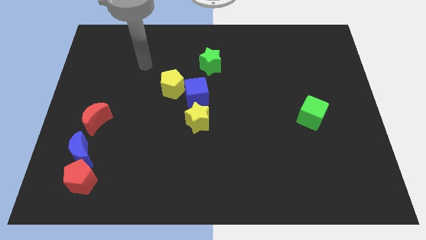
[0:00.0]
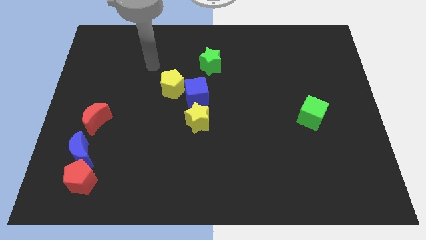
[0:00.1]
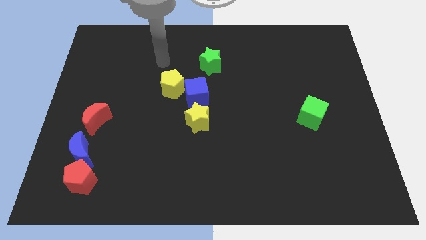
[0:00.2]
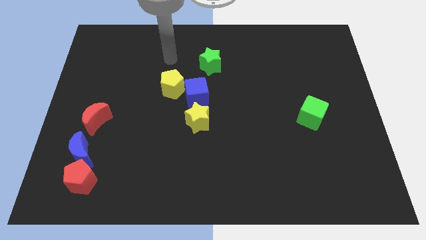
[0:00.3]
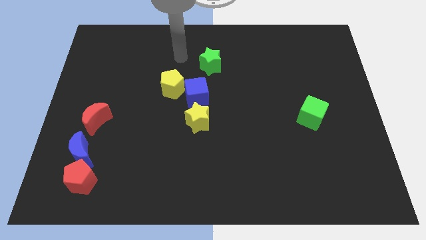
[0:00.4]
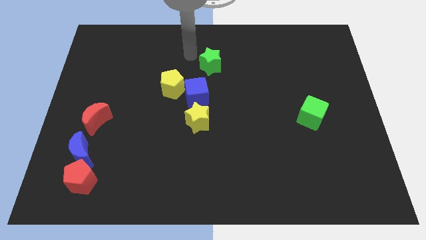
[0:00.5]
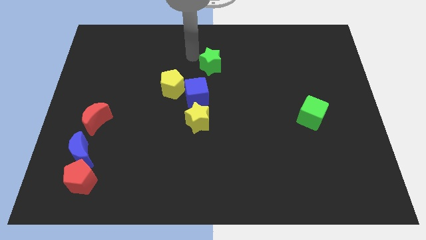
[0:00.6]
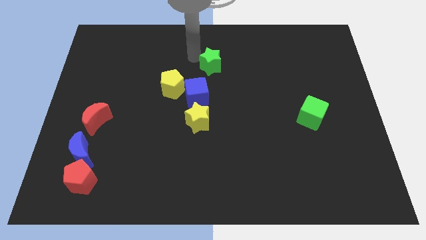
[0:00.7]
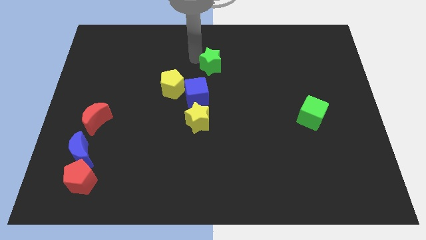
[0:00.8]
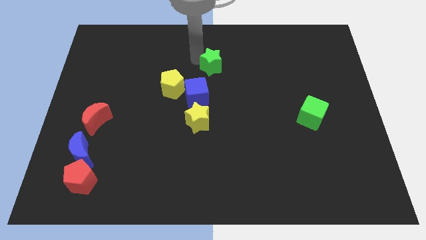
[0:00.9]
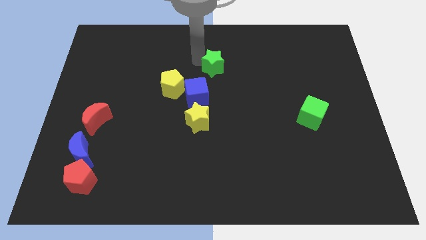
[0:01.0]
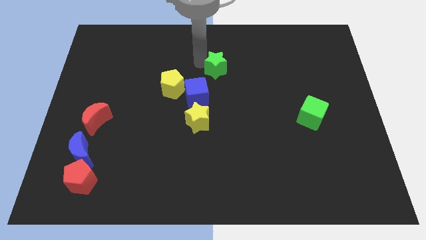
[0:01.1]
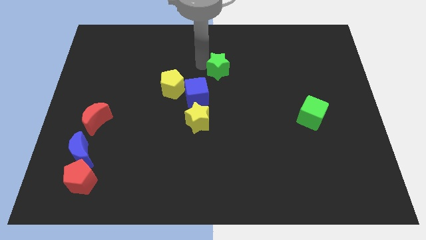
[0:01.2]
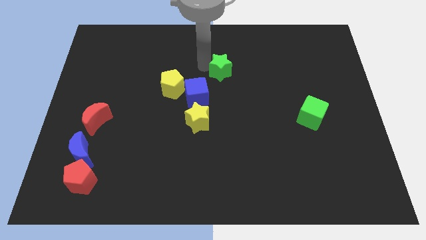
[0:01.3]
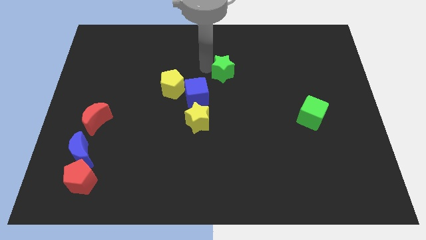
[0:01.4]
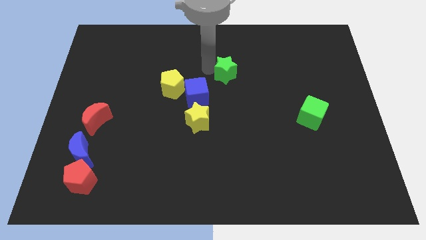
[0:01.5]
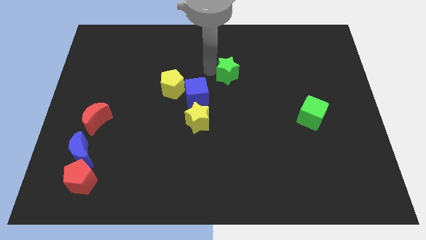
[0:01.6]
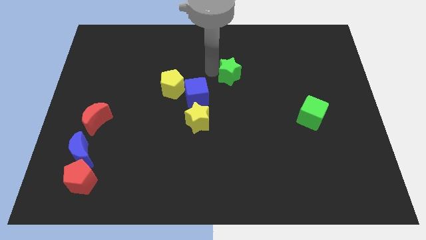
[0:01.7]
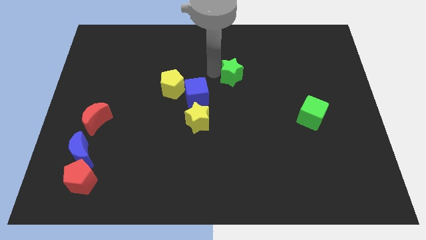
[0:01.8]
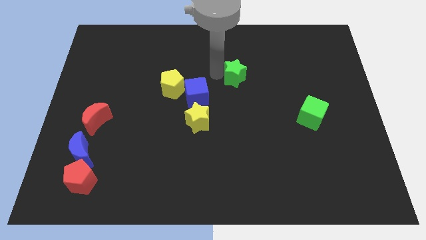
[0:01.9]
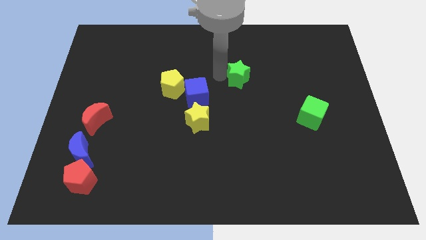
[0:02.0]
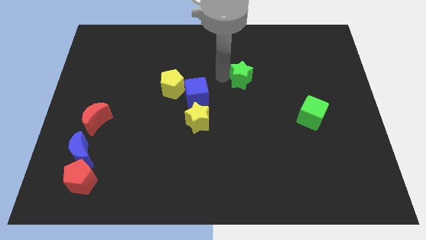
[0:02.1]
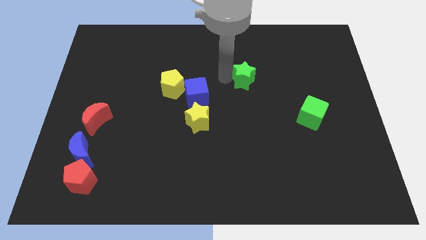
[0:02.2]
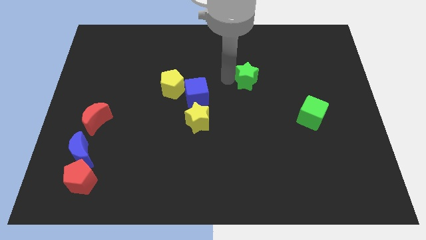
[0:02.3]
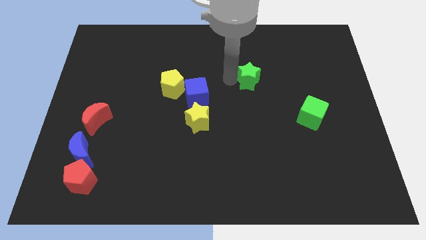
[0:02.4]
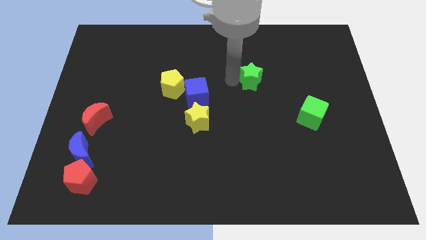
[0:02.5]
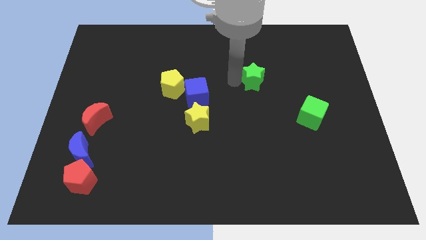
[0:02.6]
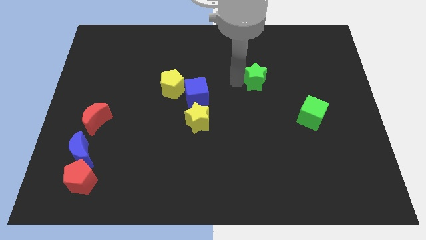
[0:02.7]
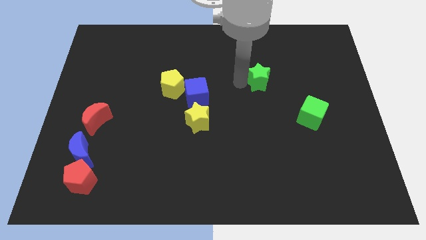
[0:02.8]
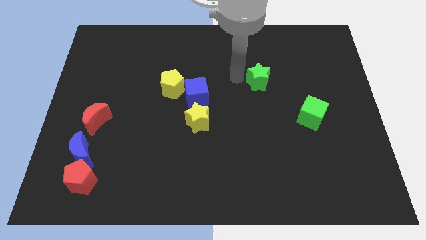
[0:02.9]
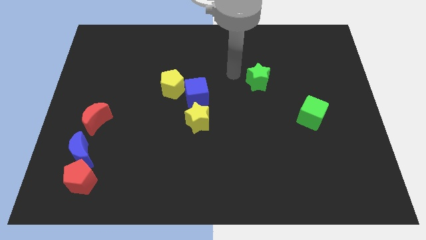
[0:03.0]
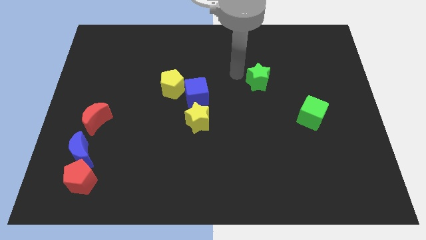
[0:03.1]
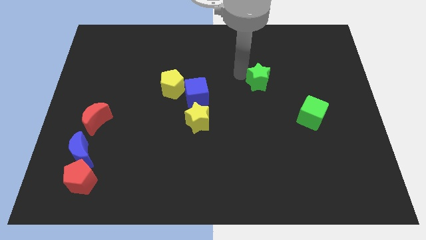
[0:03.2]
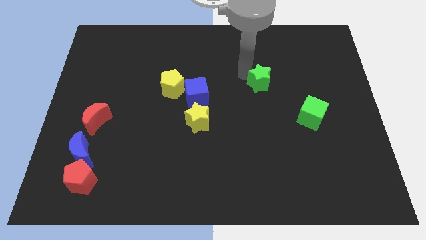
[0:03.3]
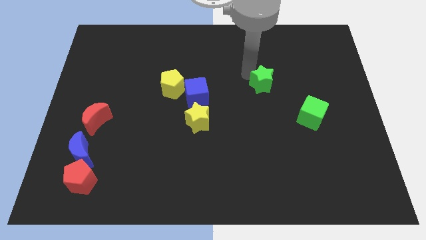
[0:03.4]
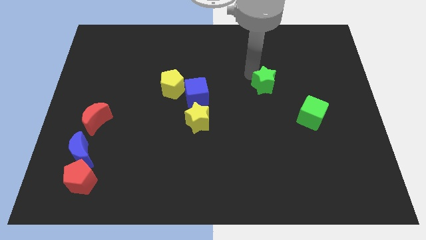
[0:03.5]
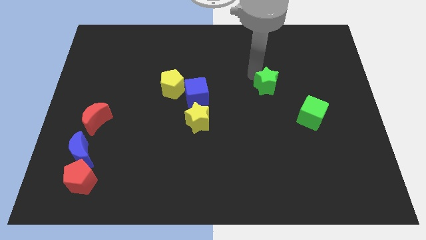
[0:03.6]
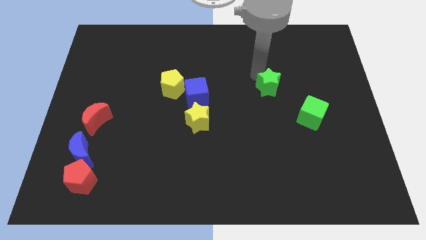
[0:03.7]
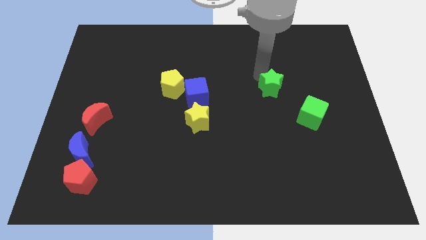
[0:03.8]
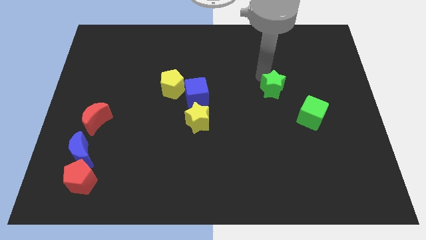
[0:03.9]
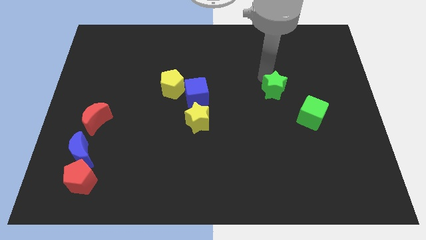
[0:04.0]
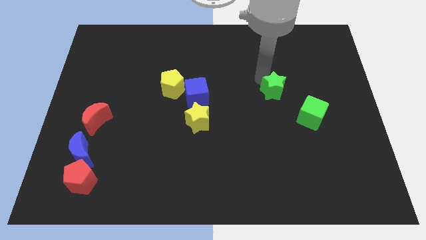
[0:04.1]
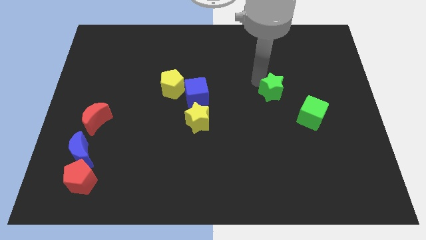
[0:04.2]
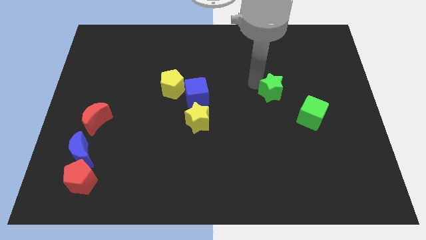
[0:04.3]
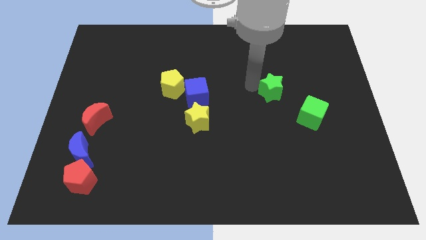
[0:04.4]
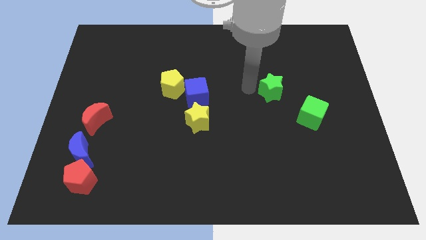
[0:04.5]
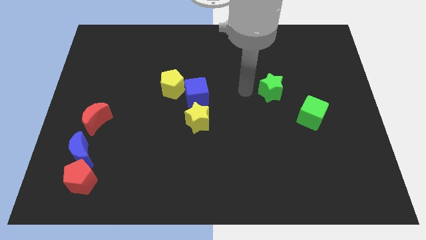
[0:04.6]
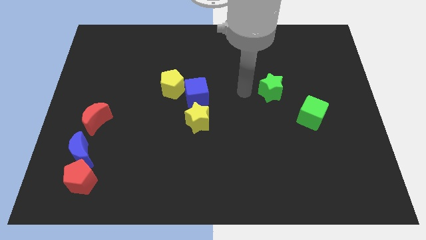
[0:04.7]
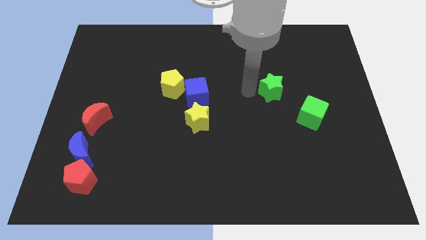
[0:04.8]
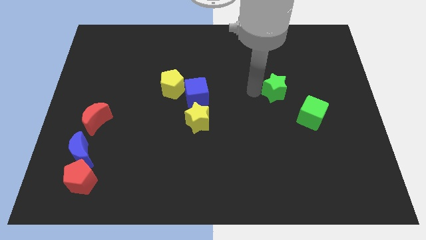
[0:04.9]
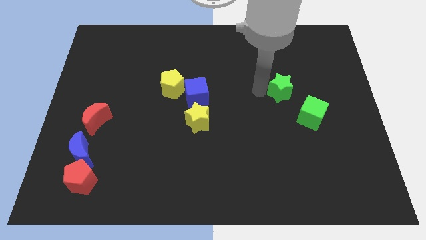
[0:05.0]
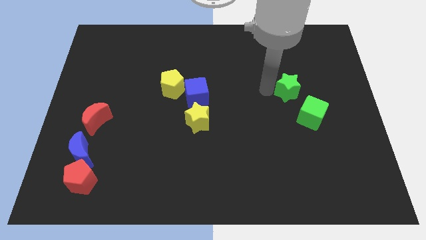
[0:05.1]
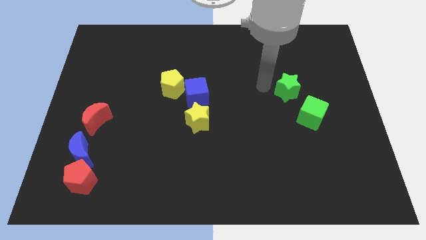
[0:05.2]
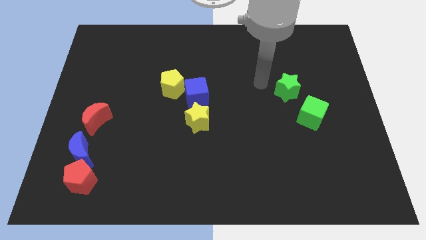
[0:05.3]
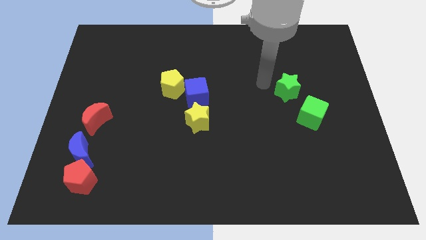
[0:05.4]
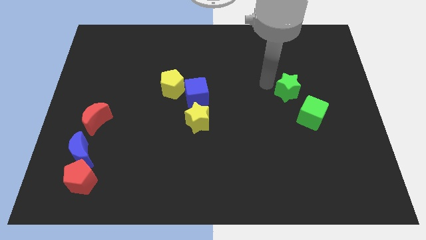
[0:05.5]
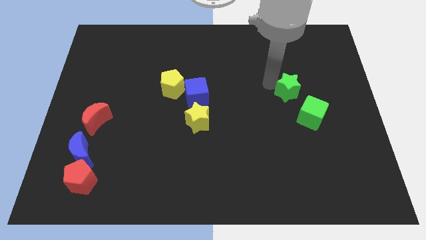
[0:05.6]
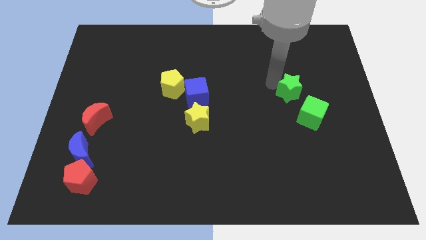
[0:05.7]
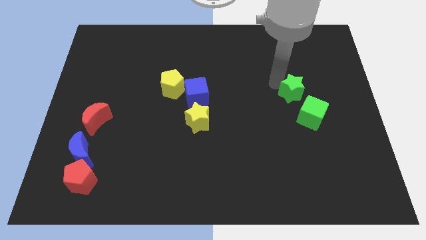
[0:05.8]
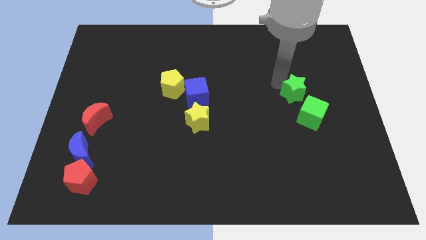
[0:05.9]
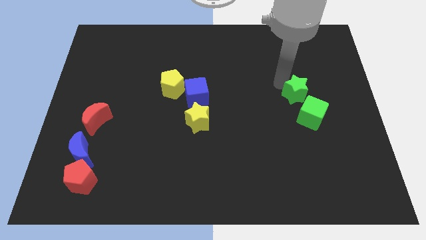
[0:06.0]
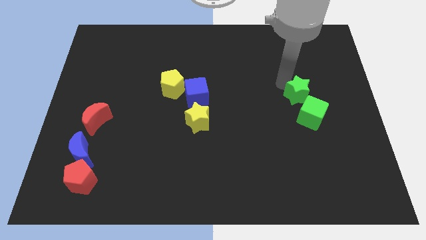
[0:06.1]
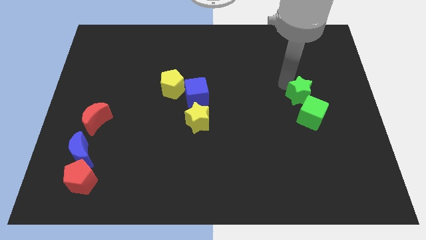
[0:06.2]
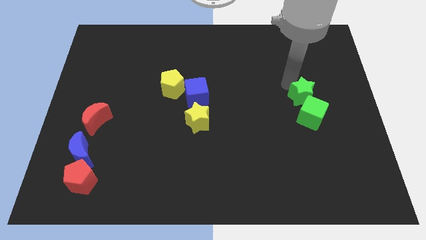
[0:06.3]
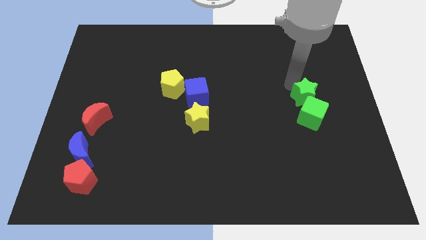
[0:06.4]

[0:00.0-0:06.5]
push the green star to the top right of the green cube
